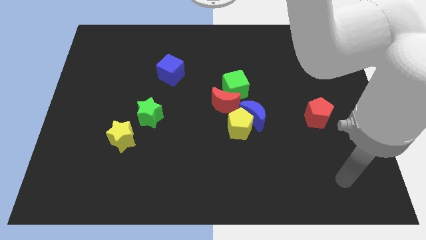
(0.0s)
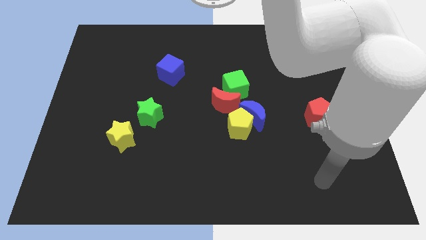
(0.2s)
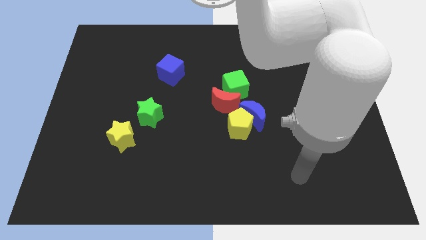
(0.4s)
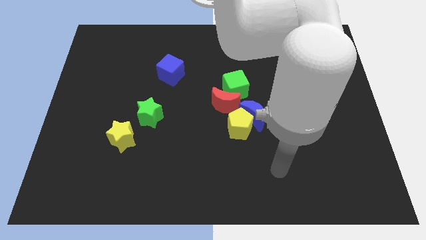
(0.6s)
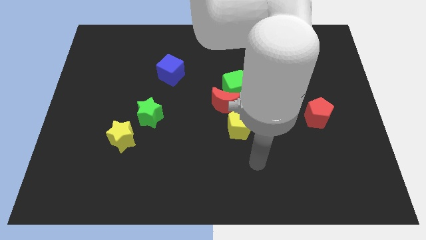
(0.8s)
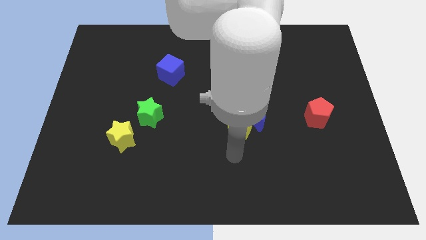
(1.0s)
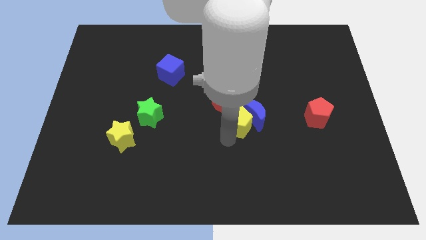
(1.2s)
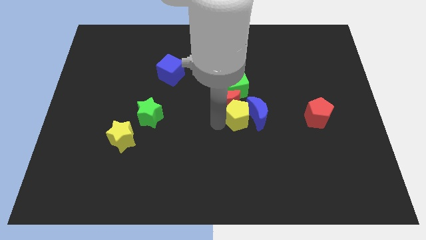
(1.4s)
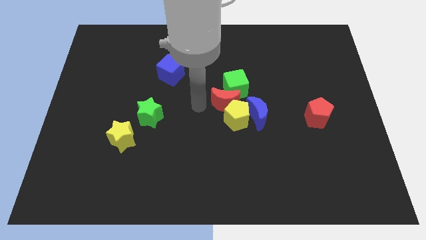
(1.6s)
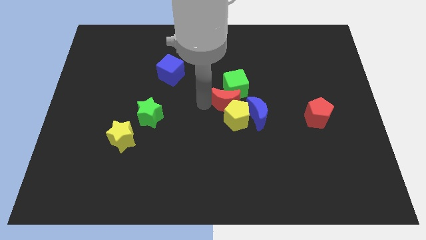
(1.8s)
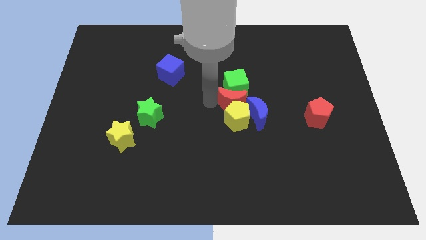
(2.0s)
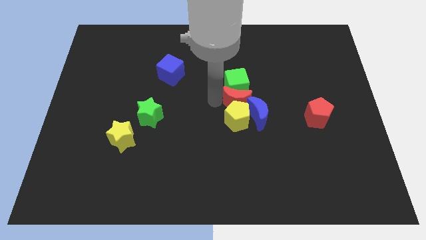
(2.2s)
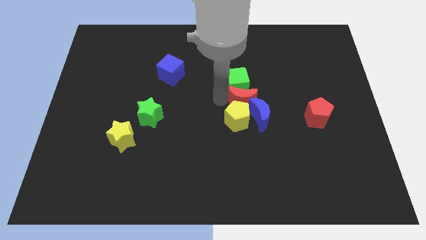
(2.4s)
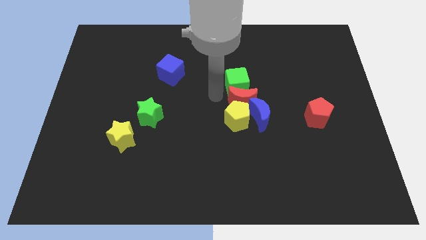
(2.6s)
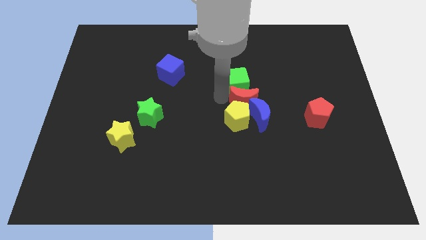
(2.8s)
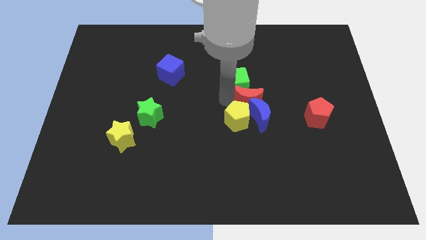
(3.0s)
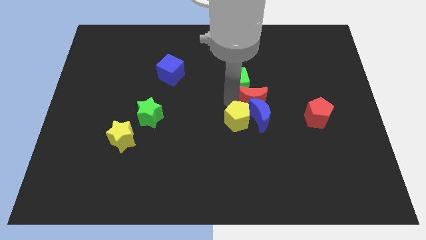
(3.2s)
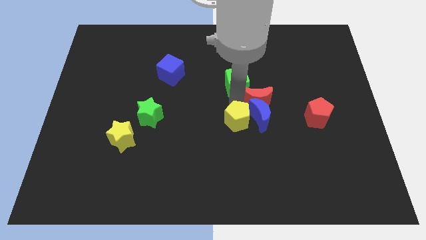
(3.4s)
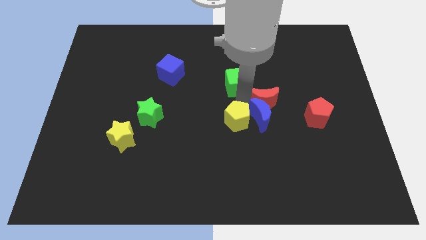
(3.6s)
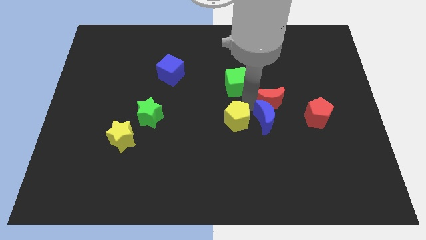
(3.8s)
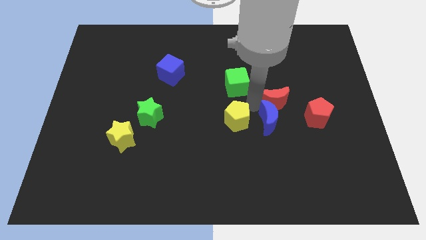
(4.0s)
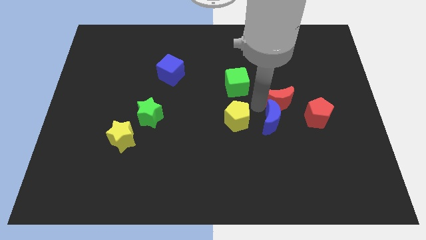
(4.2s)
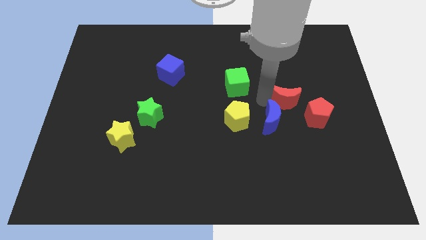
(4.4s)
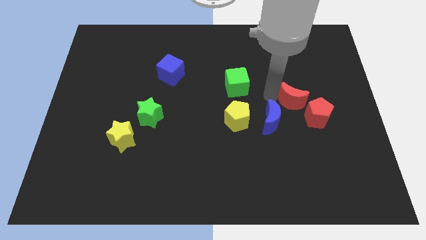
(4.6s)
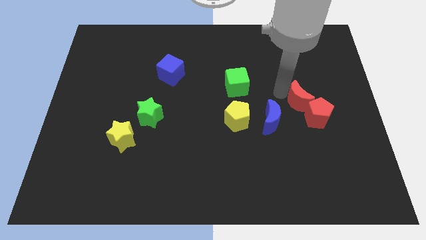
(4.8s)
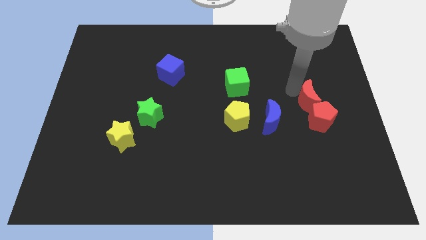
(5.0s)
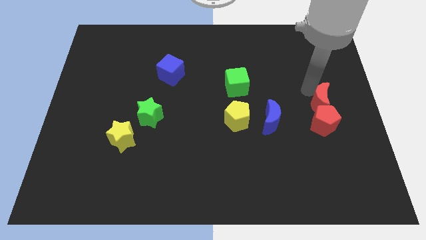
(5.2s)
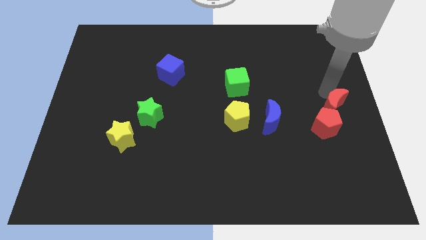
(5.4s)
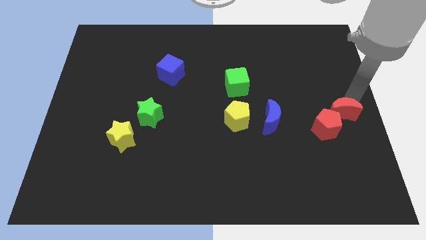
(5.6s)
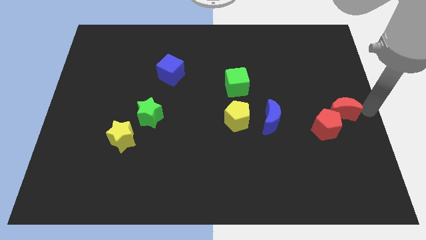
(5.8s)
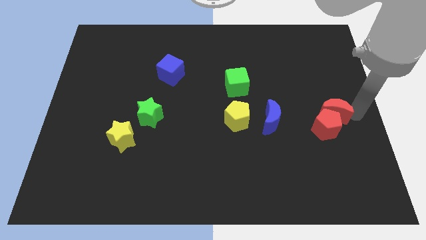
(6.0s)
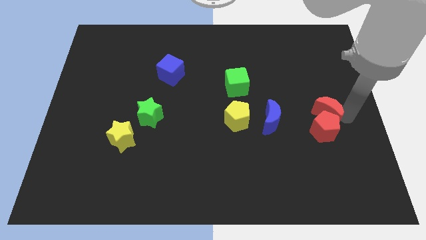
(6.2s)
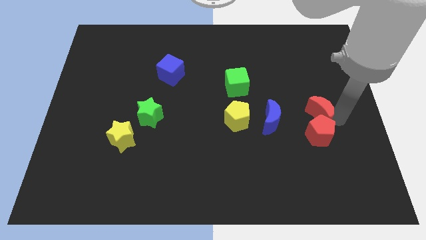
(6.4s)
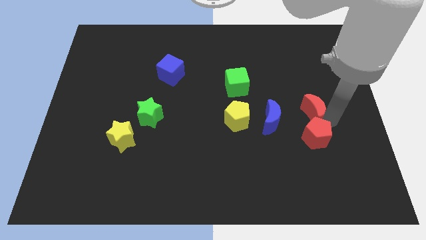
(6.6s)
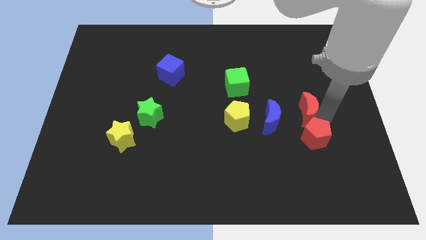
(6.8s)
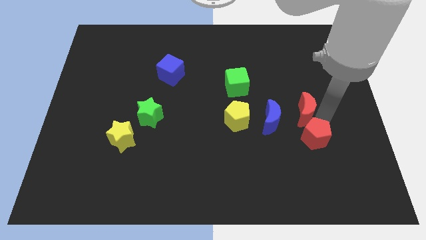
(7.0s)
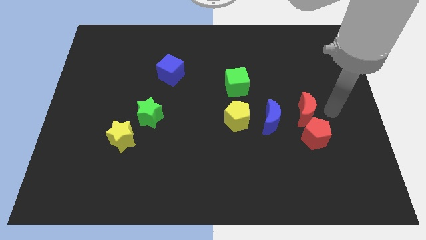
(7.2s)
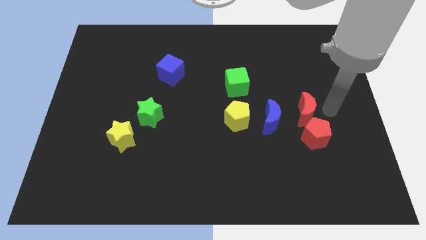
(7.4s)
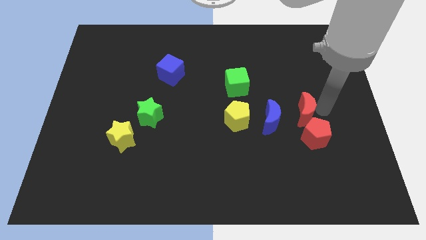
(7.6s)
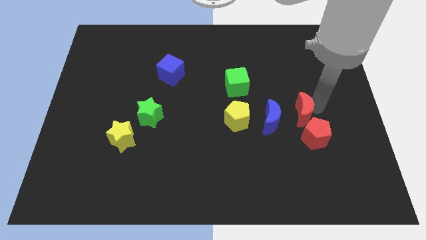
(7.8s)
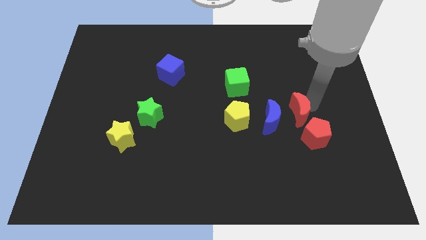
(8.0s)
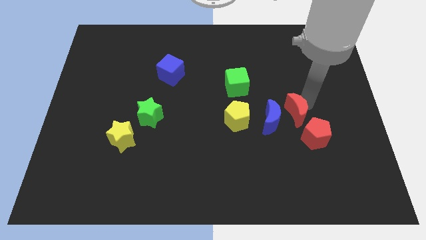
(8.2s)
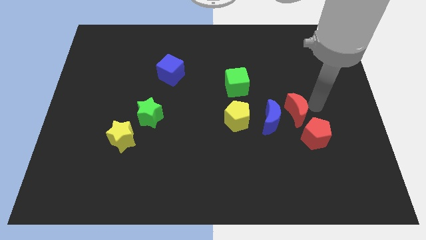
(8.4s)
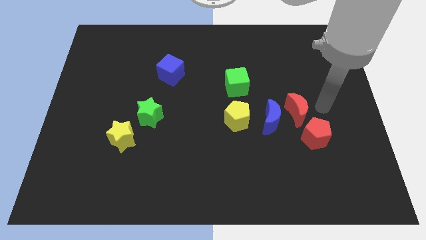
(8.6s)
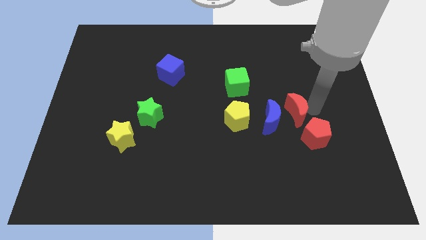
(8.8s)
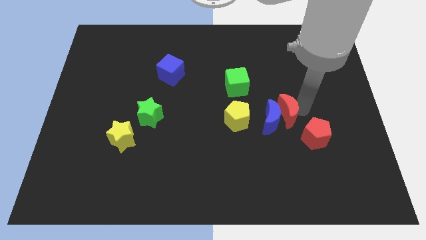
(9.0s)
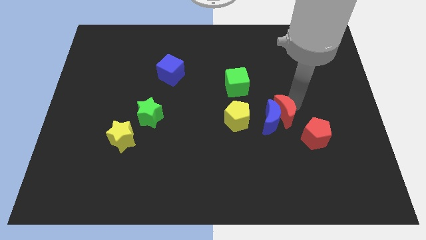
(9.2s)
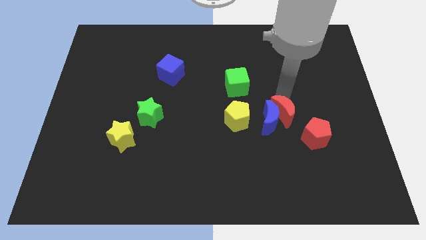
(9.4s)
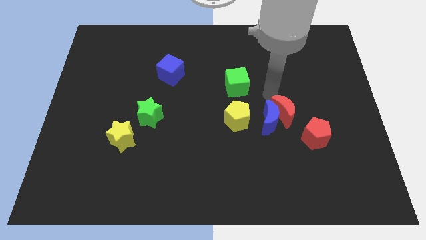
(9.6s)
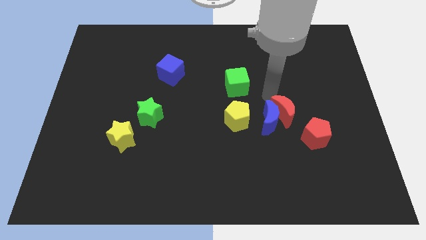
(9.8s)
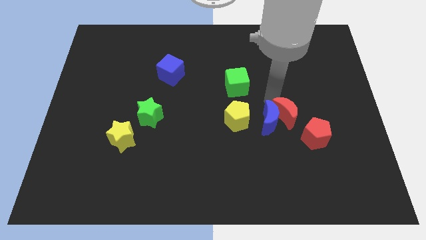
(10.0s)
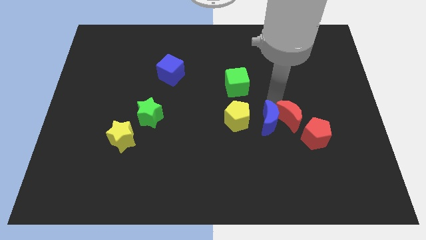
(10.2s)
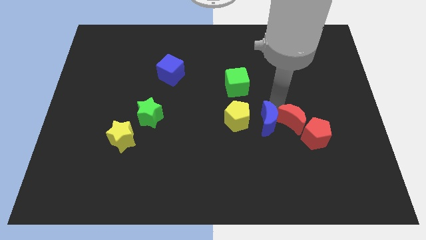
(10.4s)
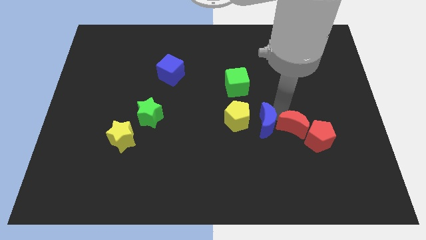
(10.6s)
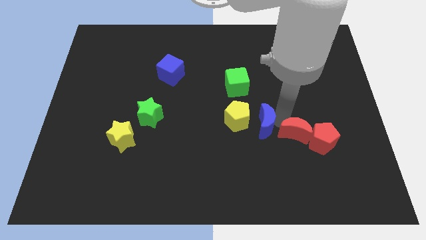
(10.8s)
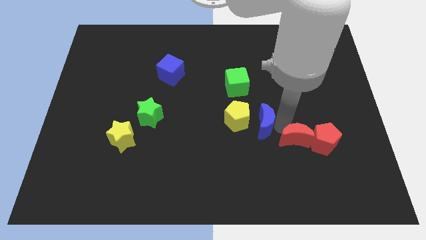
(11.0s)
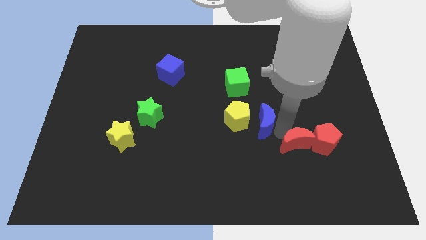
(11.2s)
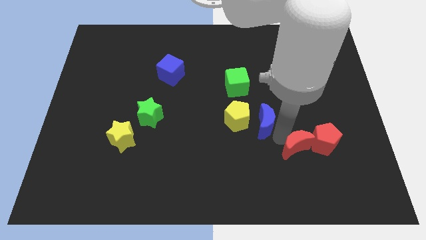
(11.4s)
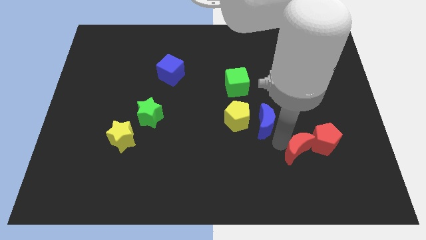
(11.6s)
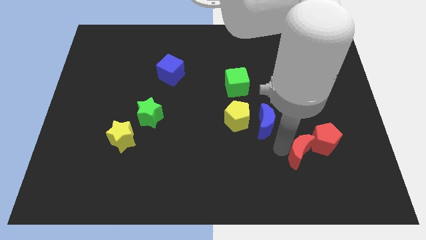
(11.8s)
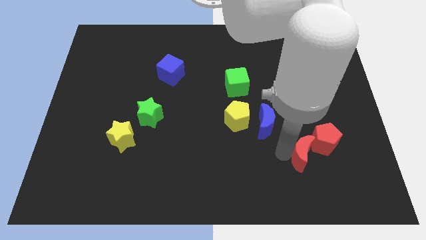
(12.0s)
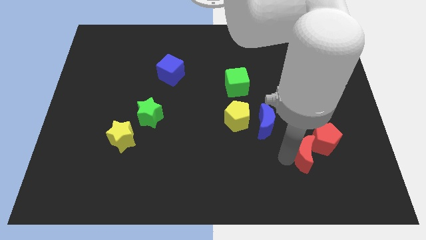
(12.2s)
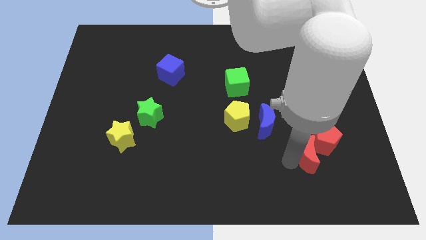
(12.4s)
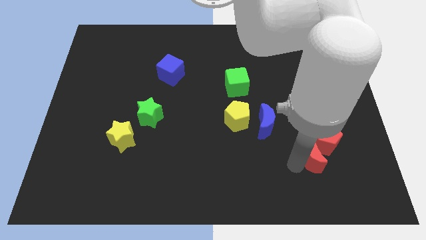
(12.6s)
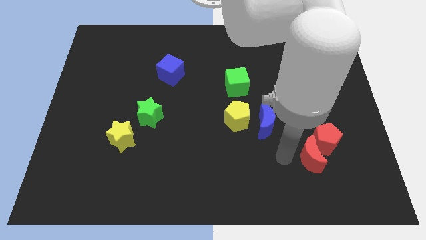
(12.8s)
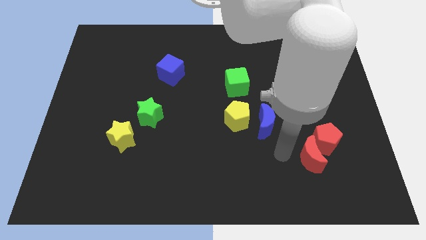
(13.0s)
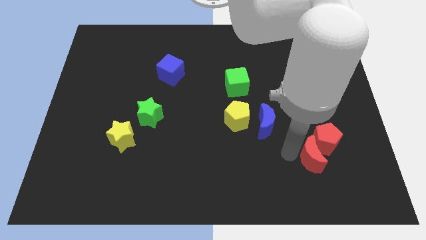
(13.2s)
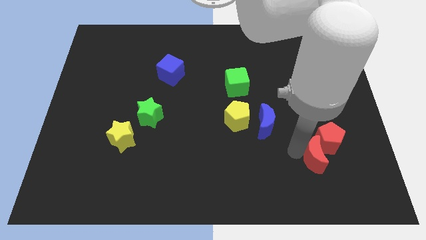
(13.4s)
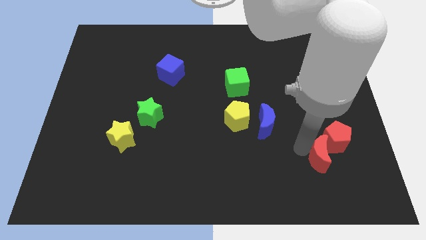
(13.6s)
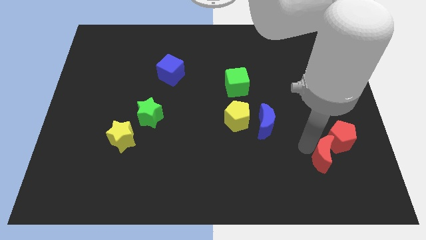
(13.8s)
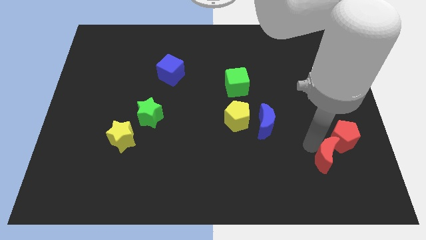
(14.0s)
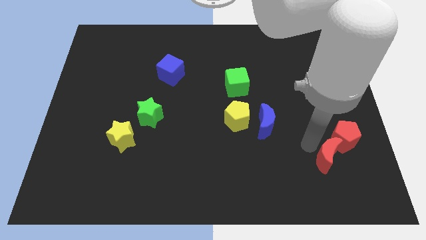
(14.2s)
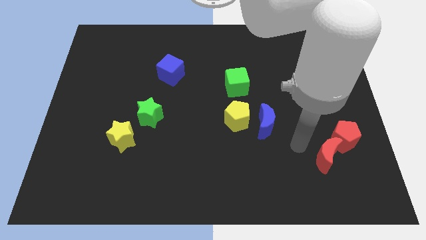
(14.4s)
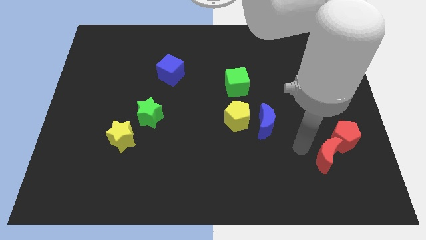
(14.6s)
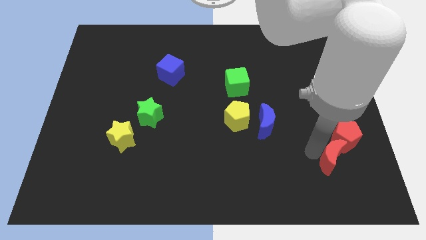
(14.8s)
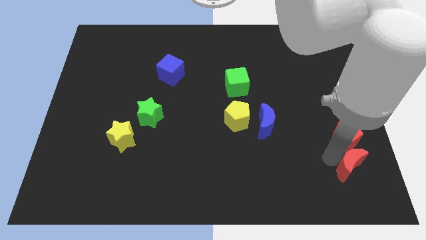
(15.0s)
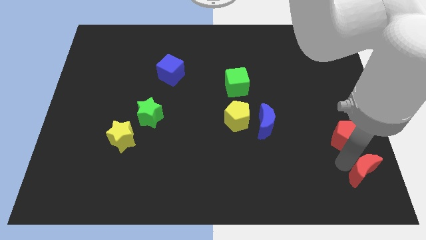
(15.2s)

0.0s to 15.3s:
push the red moon to the bottom right of the board

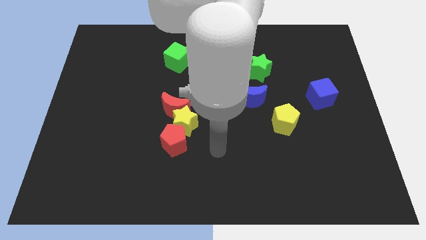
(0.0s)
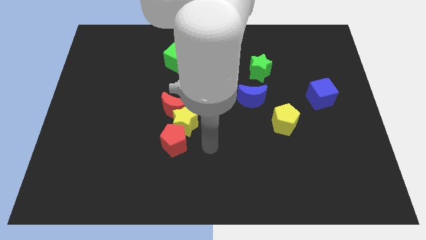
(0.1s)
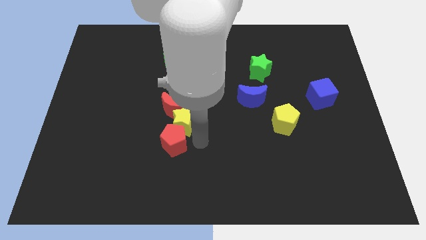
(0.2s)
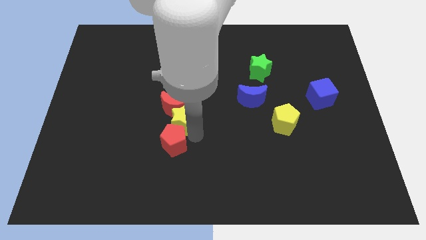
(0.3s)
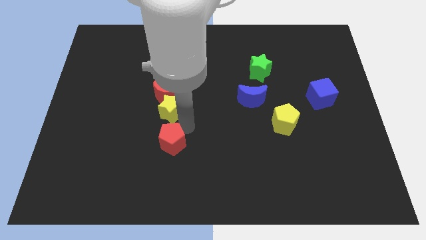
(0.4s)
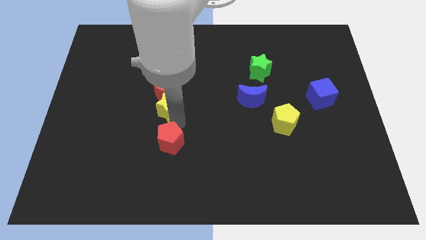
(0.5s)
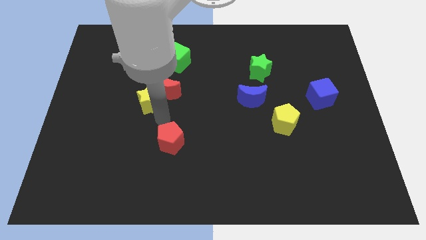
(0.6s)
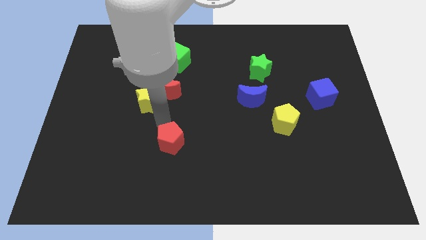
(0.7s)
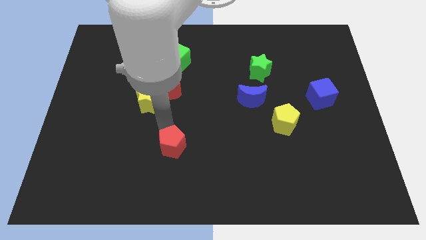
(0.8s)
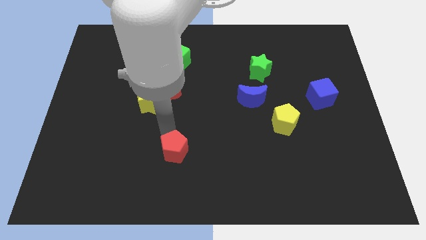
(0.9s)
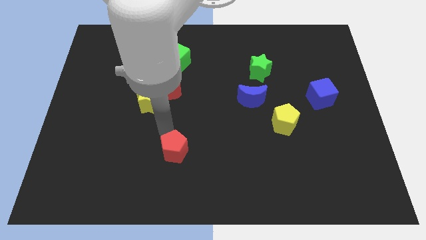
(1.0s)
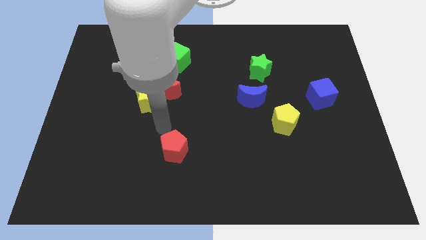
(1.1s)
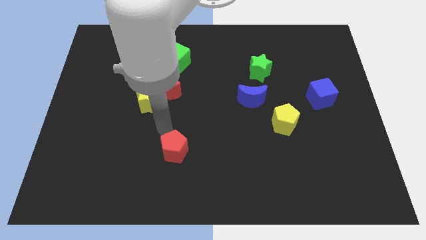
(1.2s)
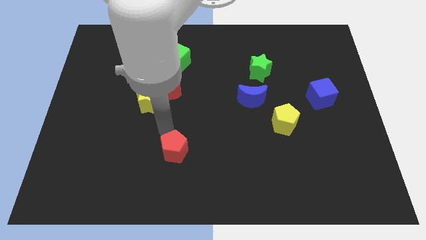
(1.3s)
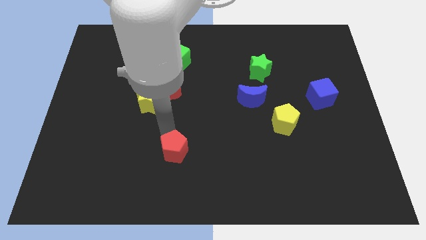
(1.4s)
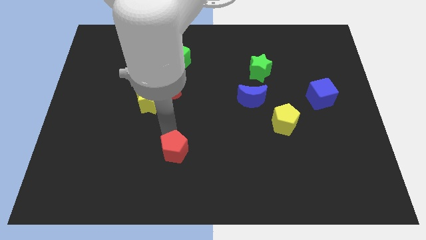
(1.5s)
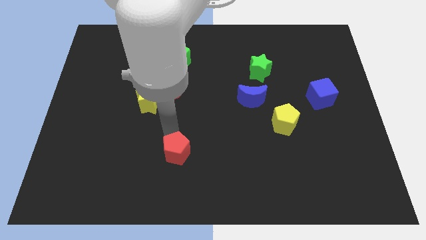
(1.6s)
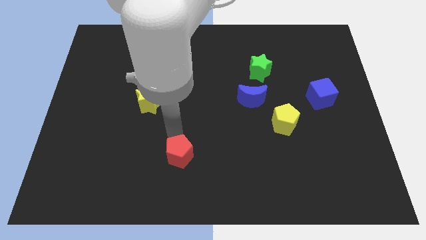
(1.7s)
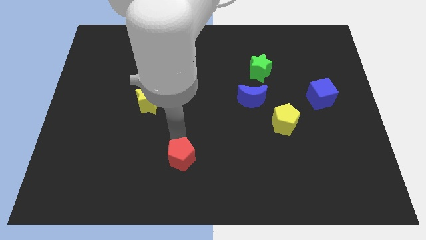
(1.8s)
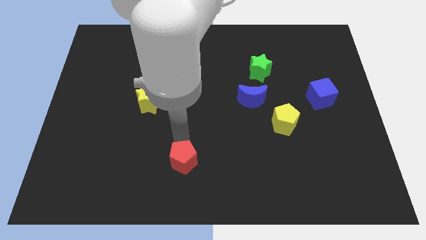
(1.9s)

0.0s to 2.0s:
slide the red pentagon to the bottom side
